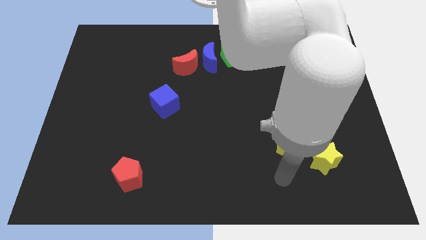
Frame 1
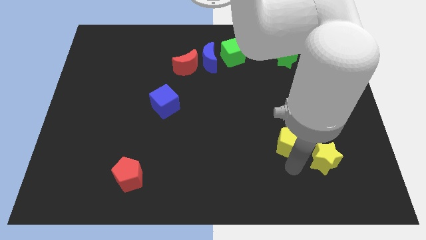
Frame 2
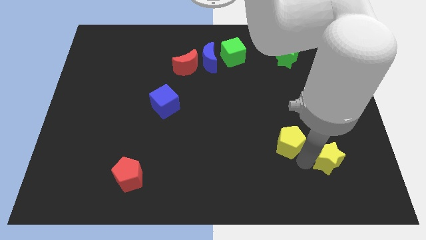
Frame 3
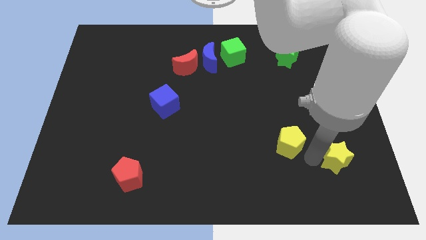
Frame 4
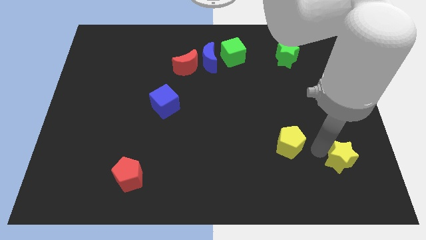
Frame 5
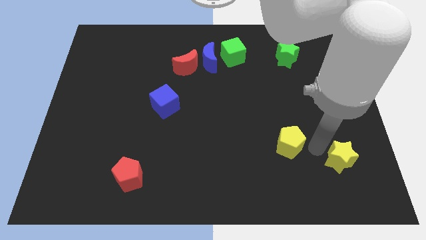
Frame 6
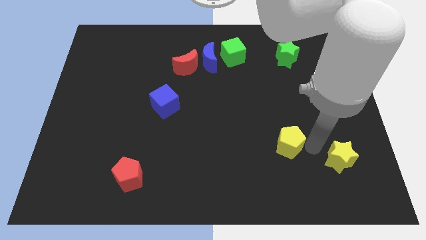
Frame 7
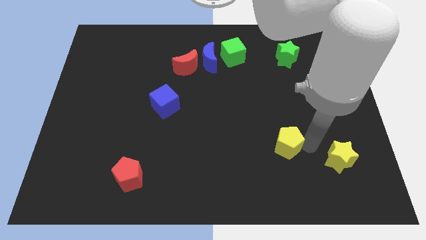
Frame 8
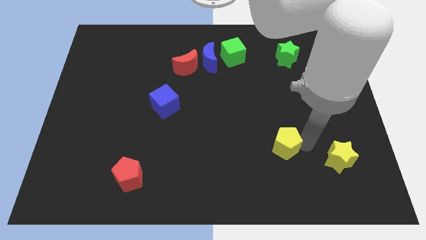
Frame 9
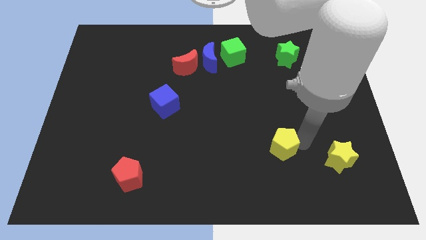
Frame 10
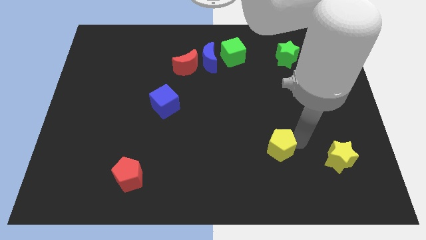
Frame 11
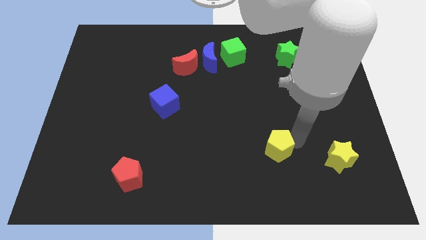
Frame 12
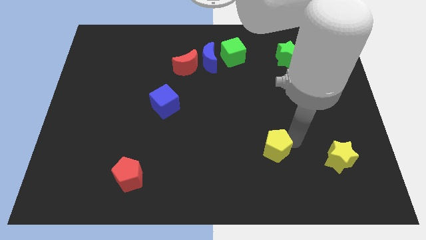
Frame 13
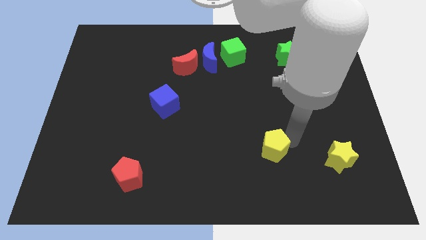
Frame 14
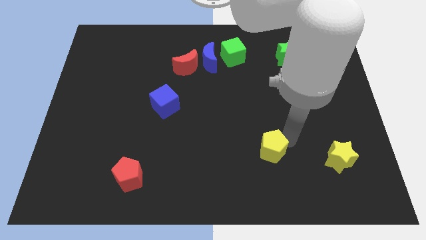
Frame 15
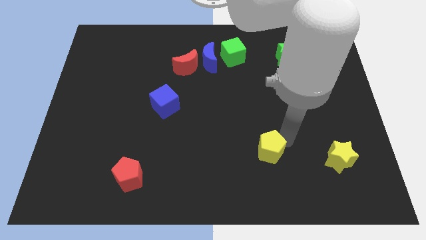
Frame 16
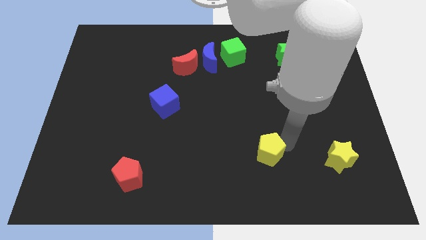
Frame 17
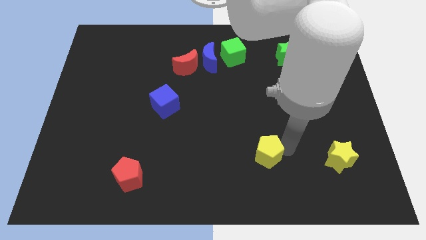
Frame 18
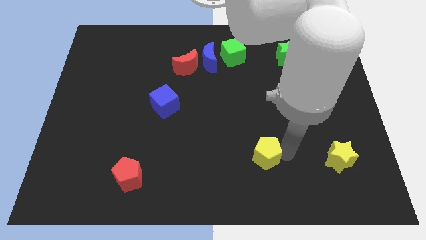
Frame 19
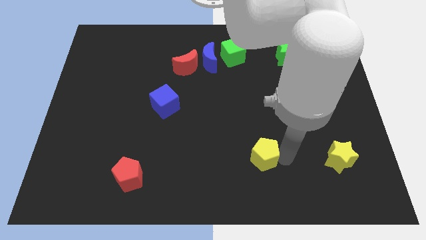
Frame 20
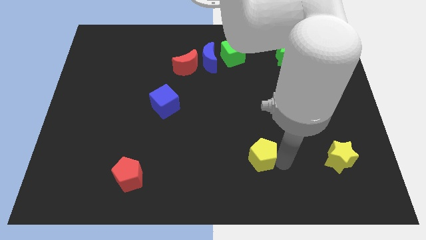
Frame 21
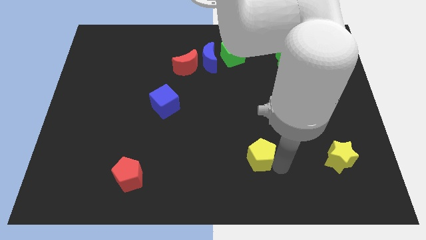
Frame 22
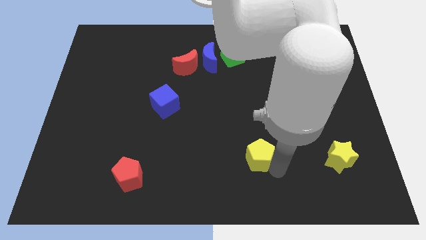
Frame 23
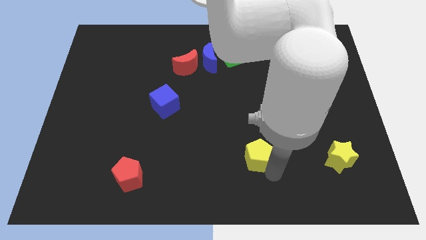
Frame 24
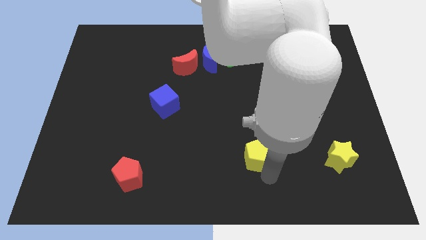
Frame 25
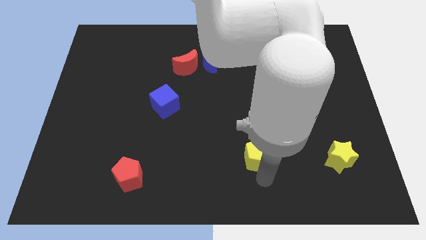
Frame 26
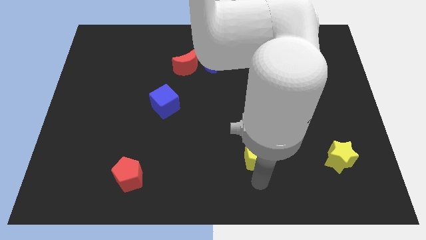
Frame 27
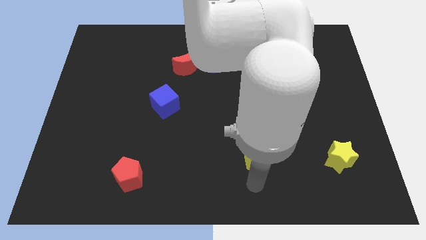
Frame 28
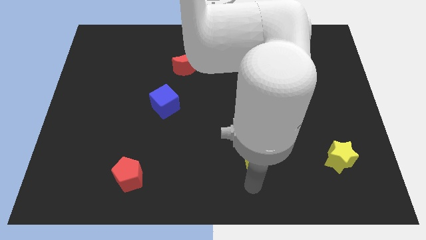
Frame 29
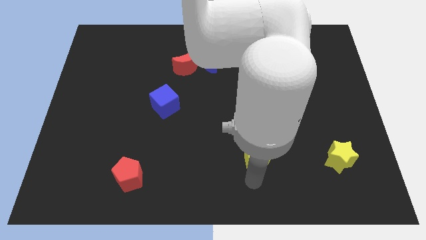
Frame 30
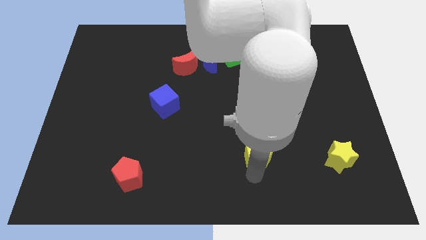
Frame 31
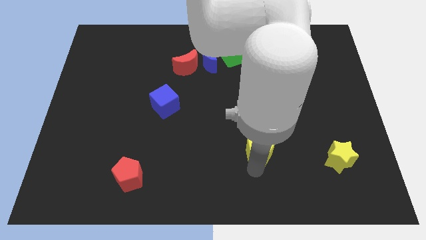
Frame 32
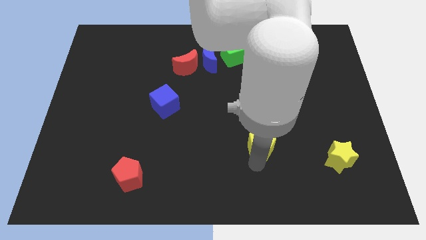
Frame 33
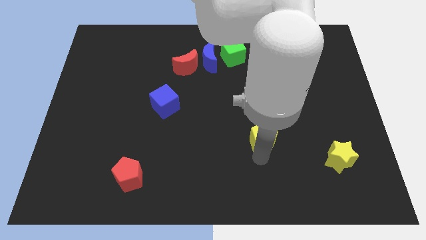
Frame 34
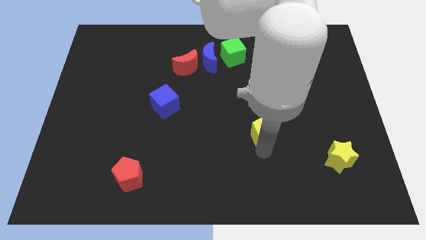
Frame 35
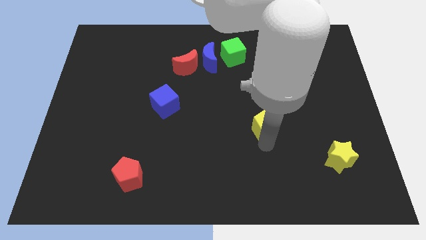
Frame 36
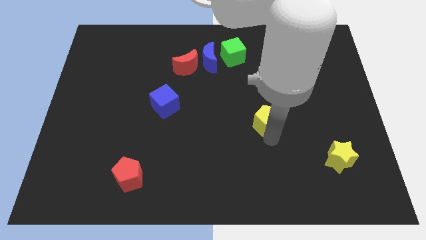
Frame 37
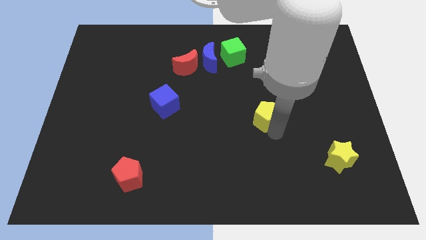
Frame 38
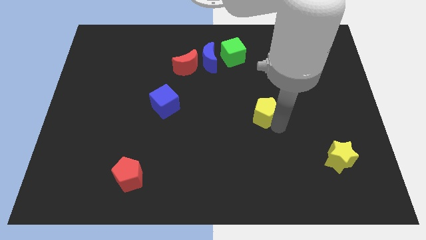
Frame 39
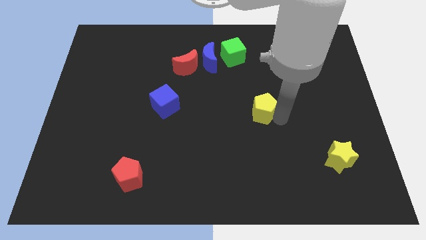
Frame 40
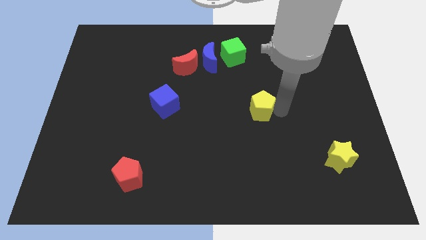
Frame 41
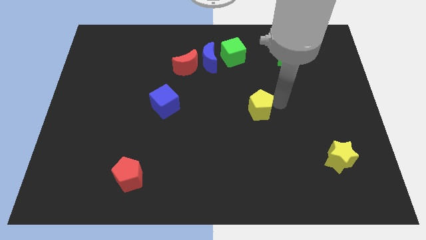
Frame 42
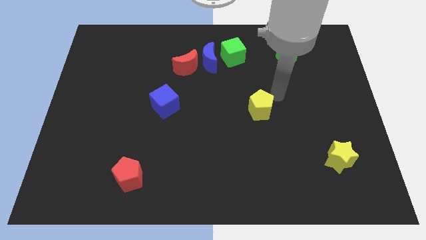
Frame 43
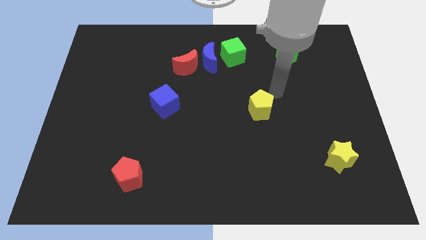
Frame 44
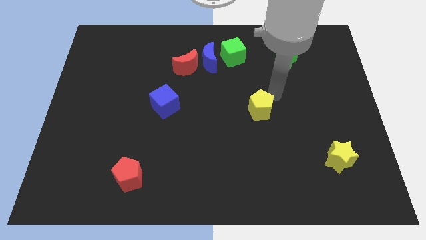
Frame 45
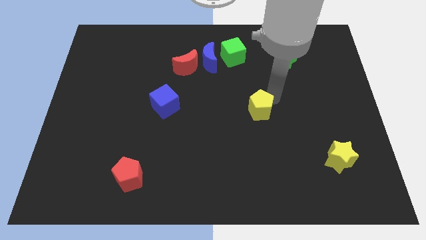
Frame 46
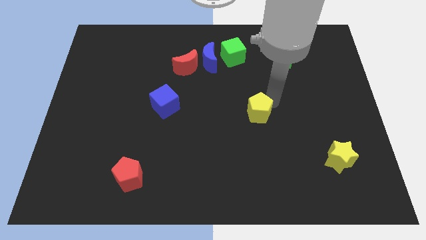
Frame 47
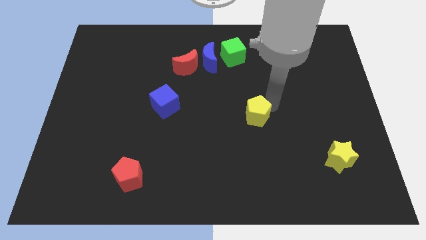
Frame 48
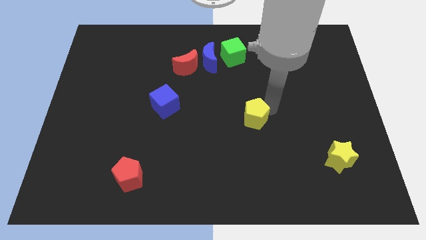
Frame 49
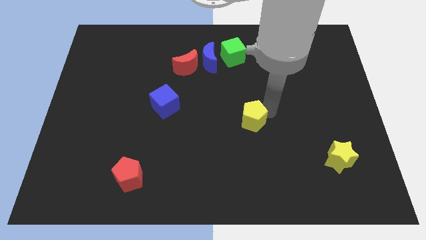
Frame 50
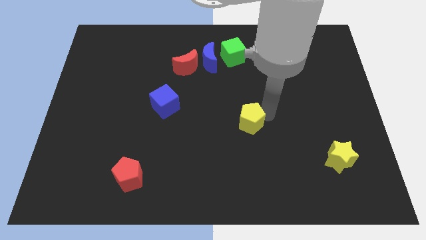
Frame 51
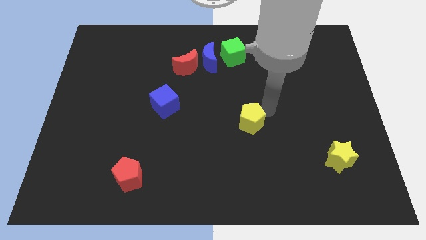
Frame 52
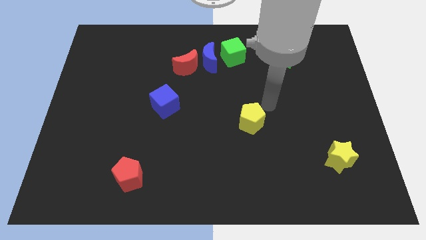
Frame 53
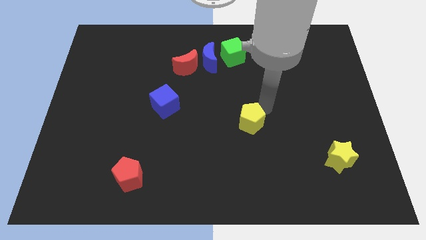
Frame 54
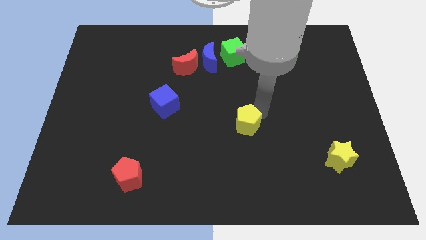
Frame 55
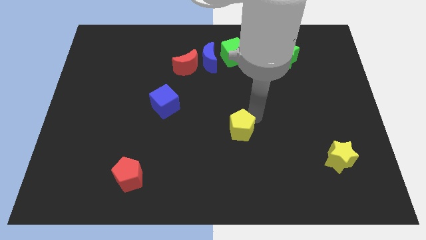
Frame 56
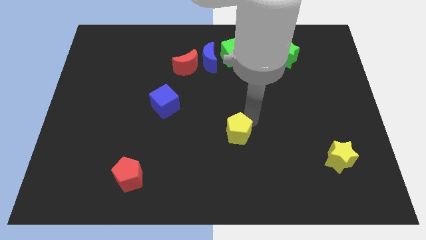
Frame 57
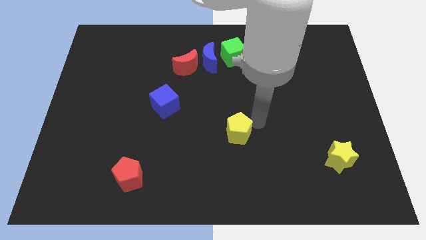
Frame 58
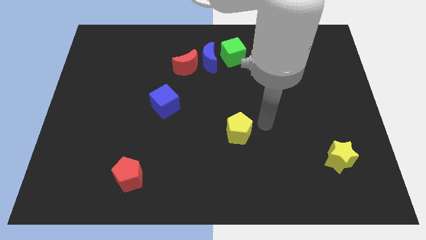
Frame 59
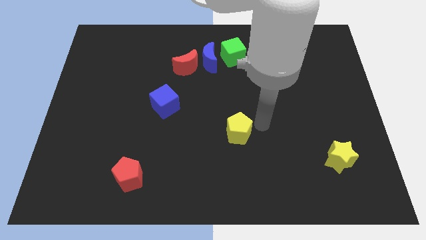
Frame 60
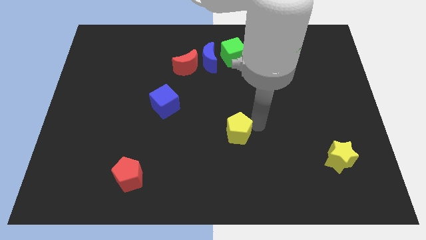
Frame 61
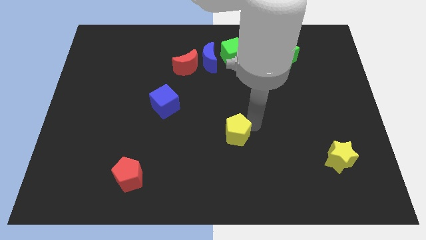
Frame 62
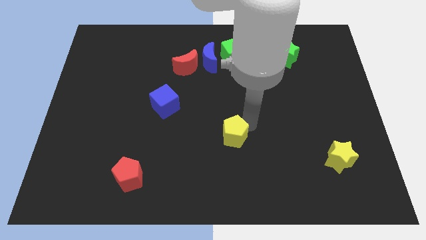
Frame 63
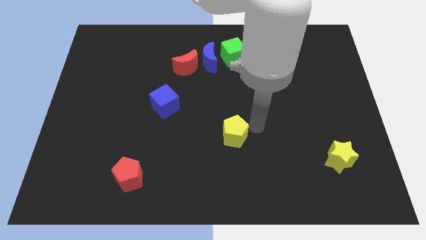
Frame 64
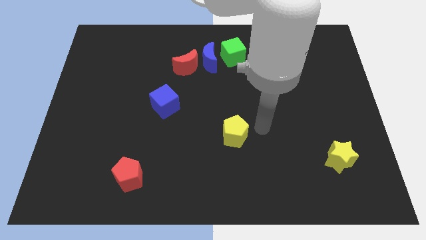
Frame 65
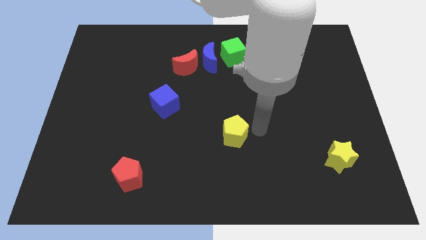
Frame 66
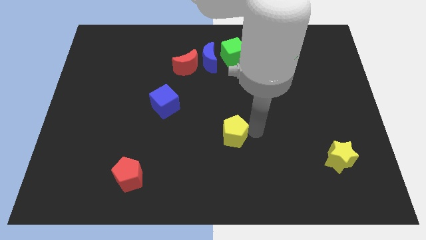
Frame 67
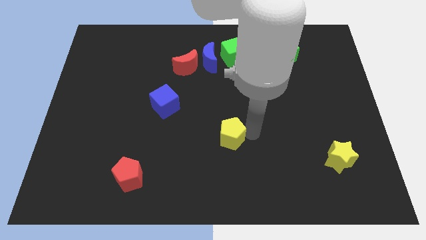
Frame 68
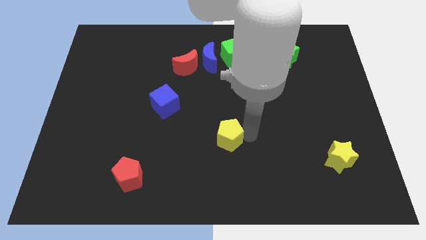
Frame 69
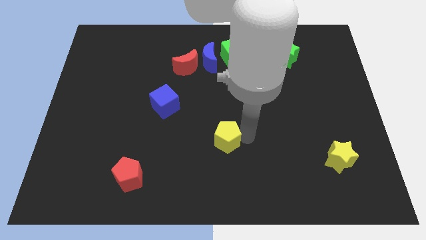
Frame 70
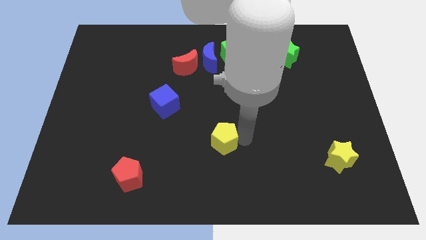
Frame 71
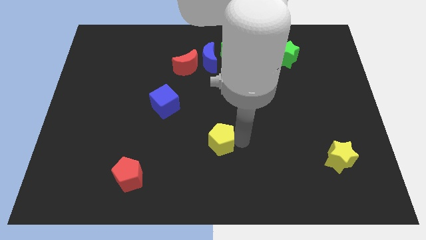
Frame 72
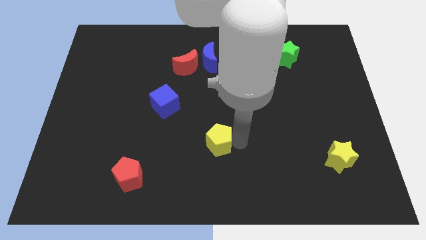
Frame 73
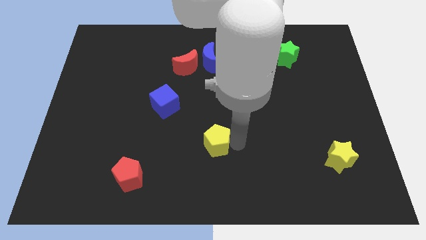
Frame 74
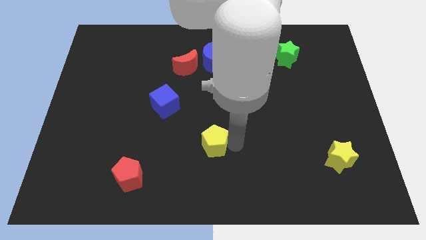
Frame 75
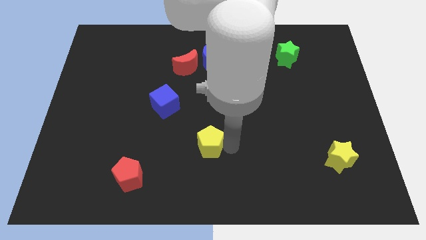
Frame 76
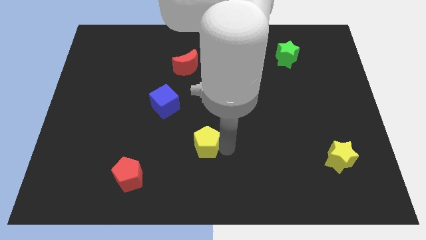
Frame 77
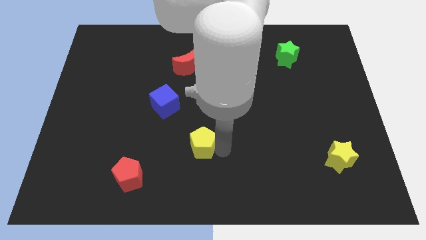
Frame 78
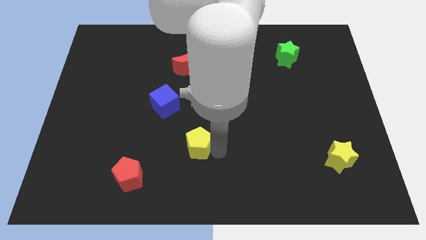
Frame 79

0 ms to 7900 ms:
push the yellow pentagon left
